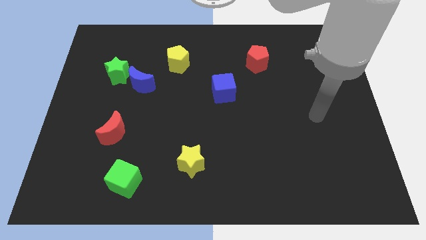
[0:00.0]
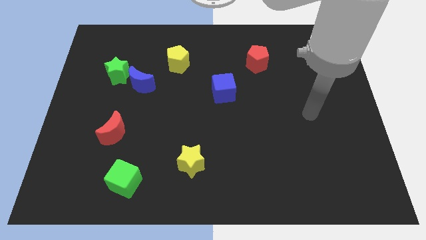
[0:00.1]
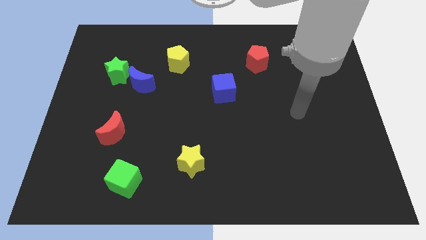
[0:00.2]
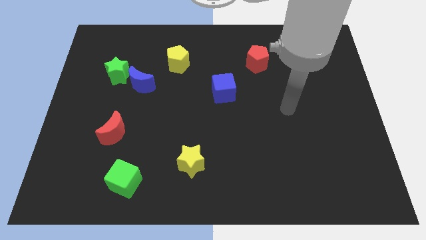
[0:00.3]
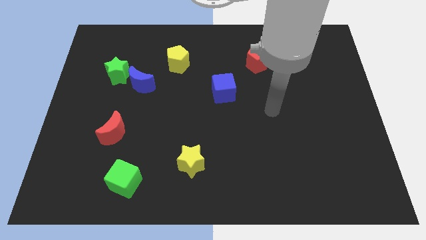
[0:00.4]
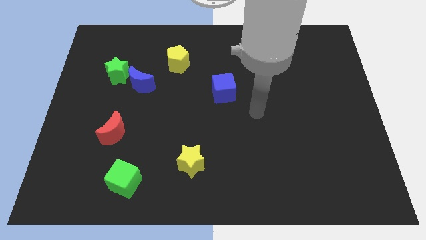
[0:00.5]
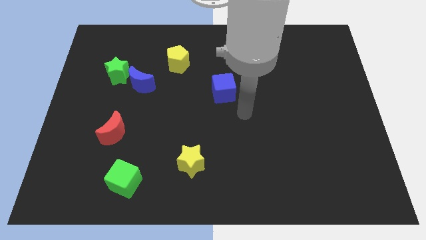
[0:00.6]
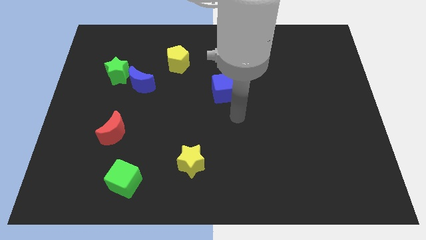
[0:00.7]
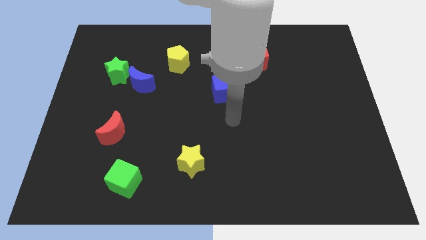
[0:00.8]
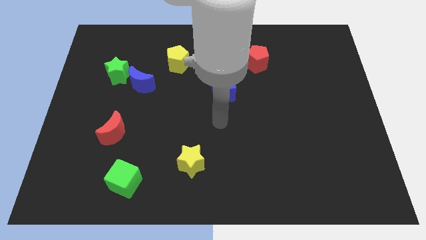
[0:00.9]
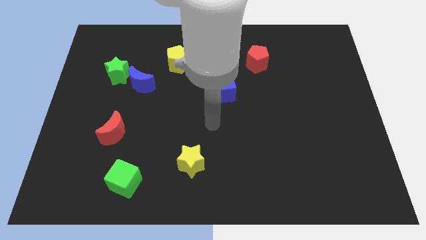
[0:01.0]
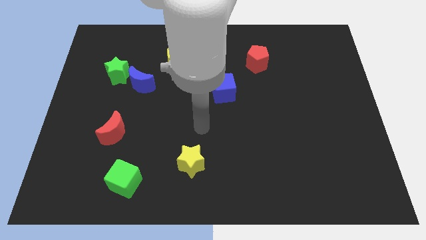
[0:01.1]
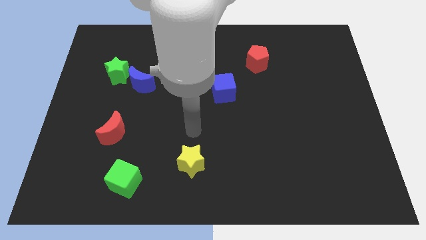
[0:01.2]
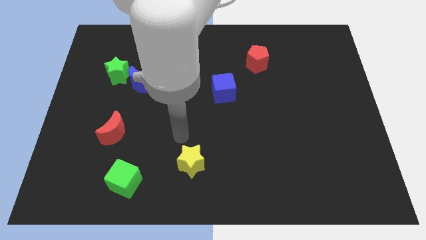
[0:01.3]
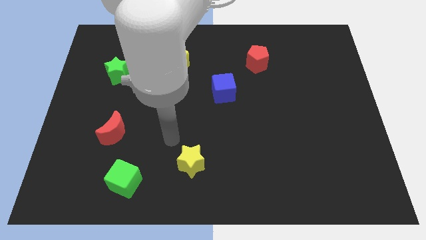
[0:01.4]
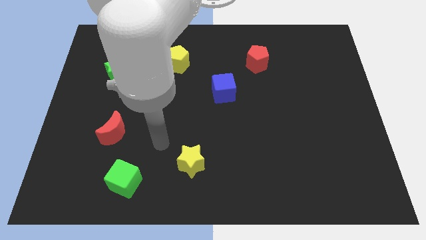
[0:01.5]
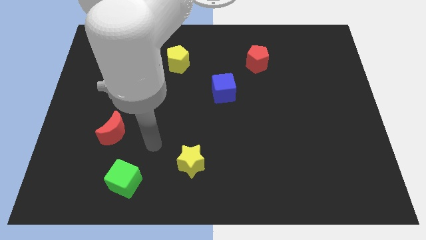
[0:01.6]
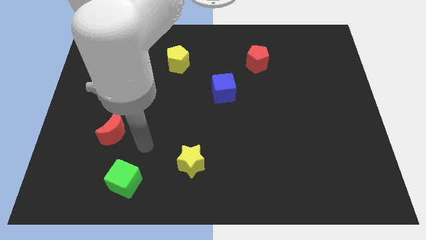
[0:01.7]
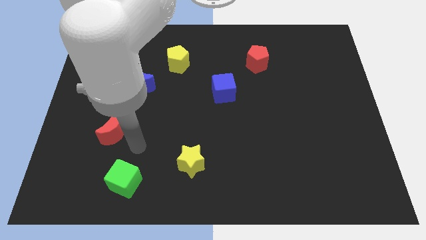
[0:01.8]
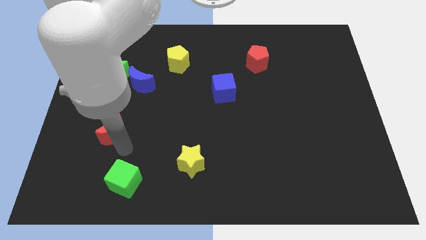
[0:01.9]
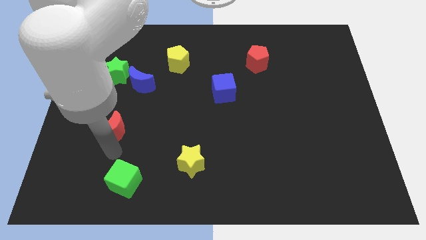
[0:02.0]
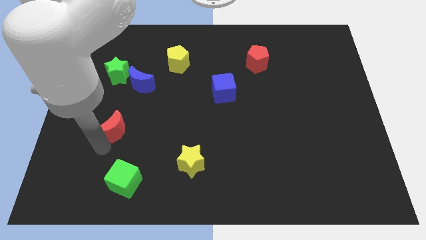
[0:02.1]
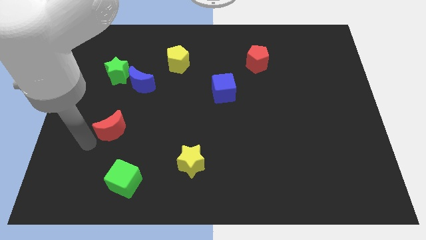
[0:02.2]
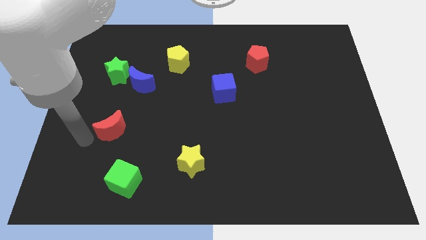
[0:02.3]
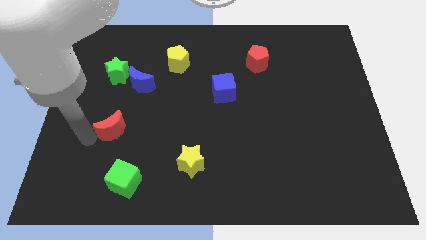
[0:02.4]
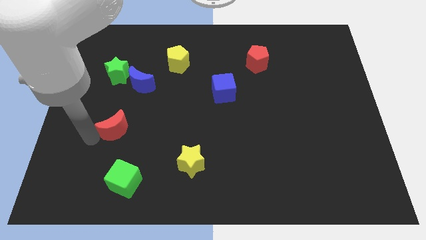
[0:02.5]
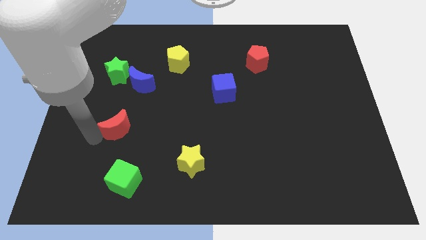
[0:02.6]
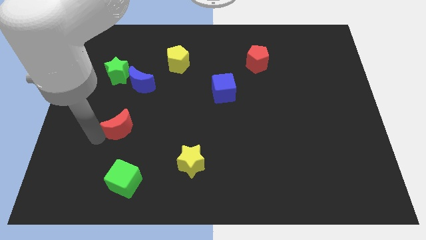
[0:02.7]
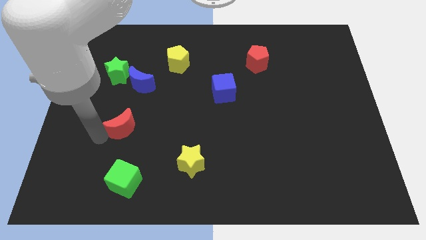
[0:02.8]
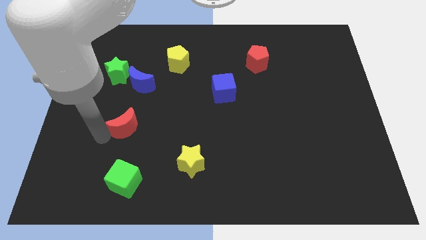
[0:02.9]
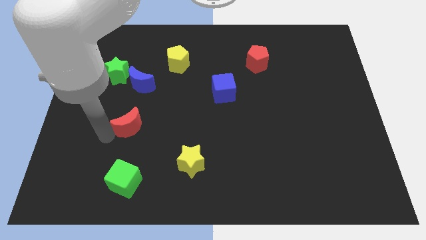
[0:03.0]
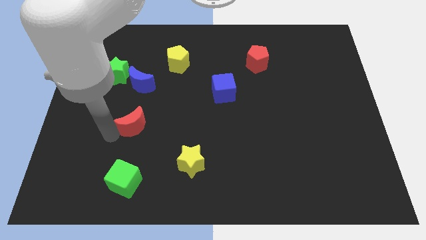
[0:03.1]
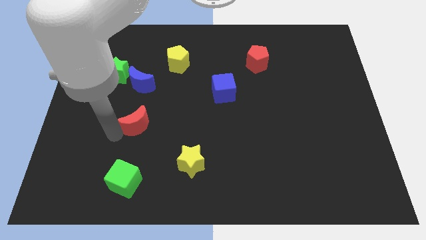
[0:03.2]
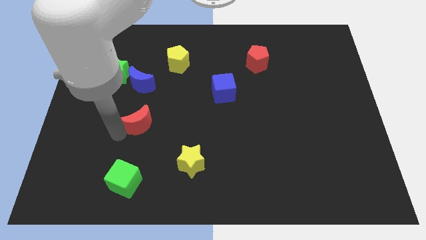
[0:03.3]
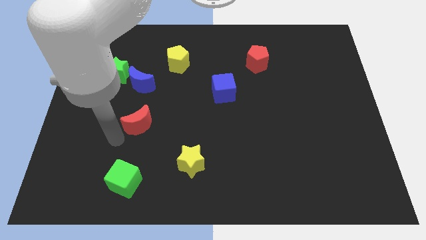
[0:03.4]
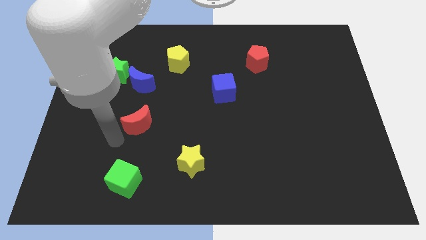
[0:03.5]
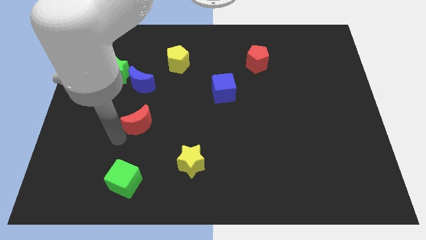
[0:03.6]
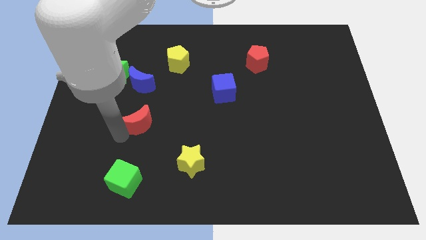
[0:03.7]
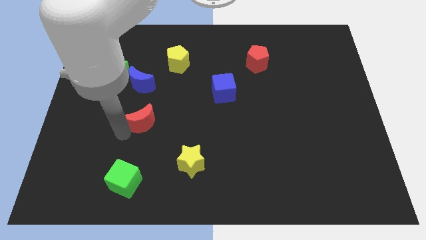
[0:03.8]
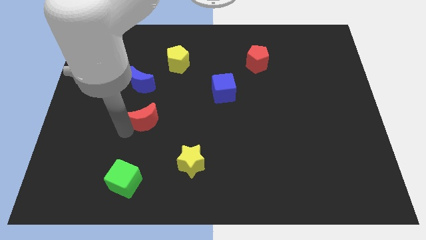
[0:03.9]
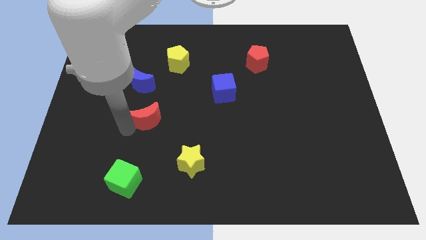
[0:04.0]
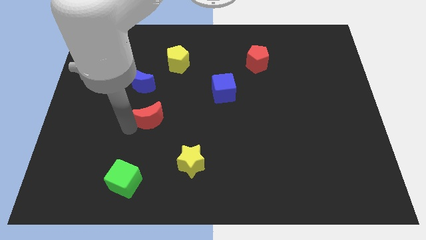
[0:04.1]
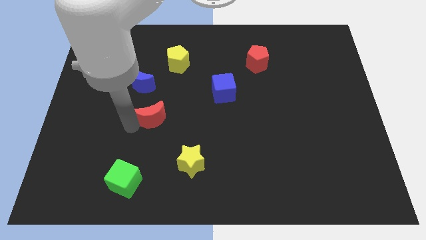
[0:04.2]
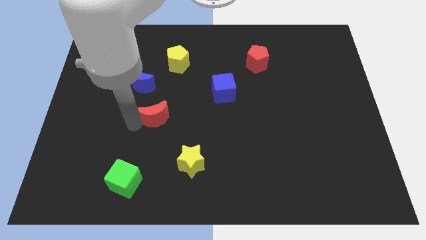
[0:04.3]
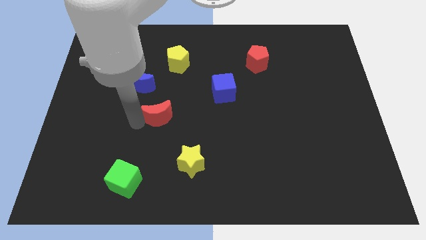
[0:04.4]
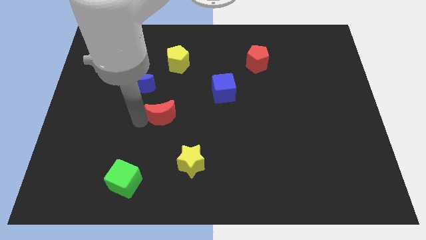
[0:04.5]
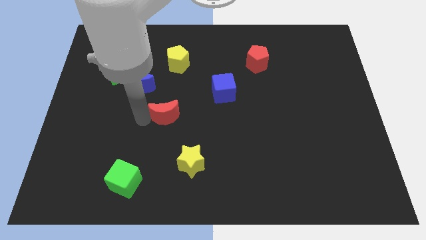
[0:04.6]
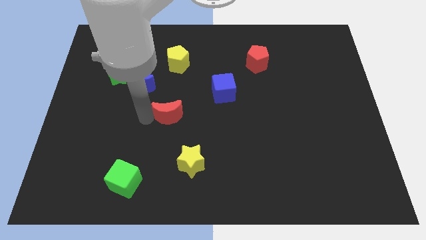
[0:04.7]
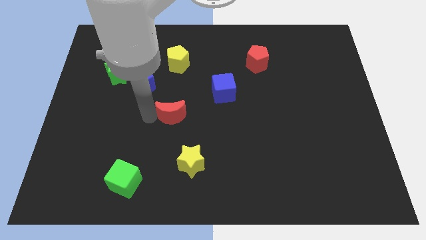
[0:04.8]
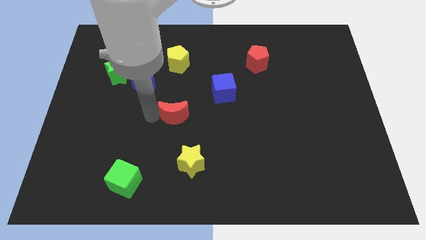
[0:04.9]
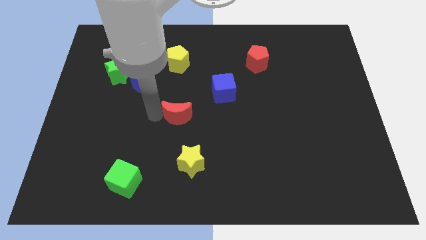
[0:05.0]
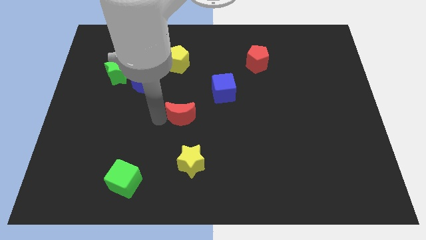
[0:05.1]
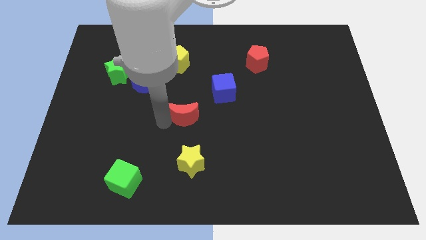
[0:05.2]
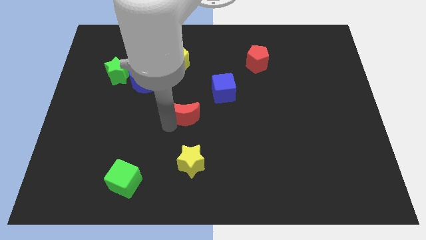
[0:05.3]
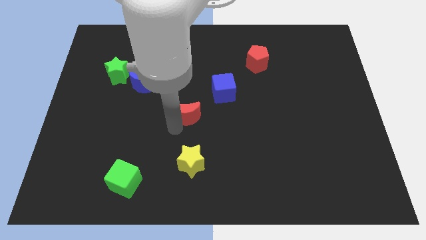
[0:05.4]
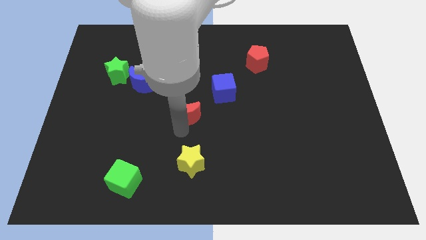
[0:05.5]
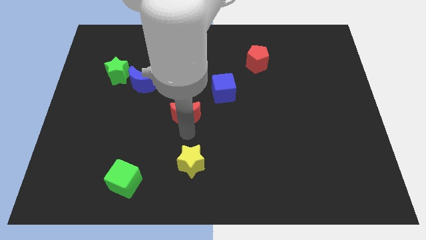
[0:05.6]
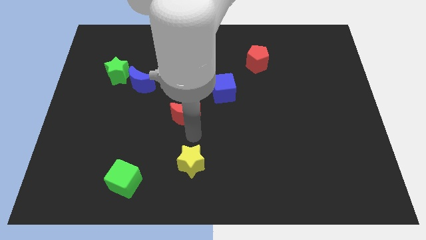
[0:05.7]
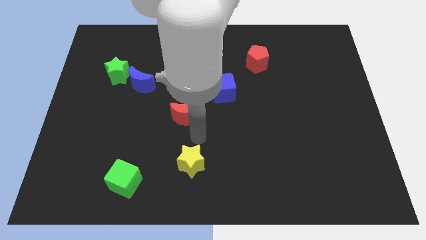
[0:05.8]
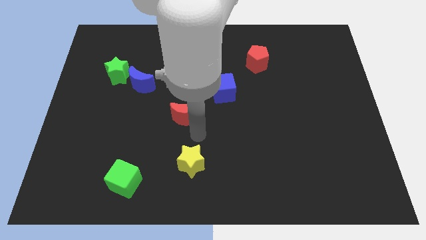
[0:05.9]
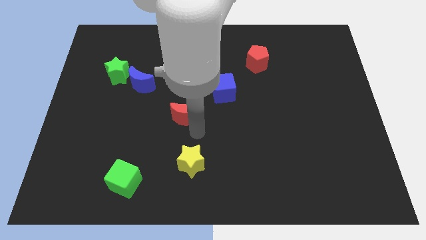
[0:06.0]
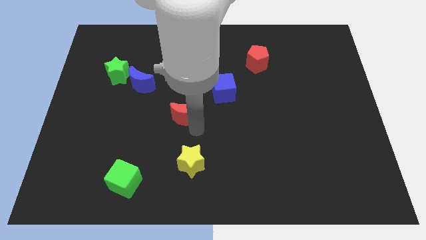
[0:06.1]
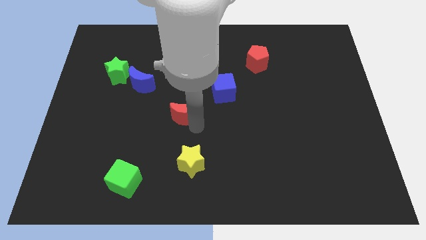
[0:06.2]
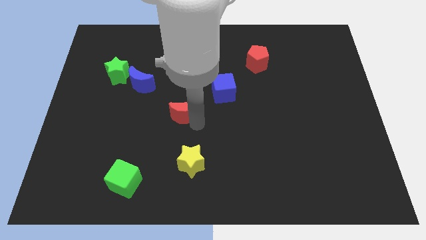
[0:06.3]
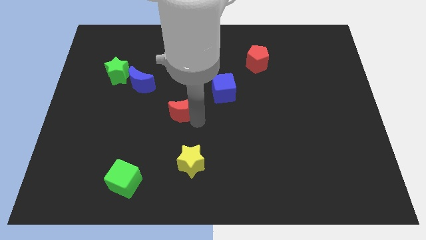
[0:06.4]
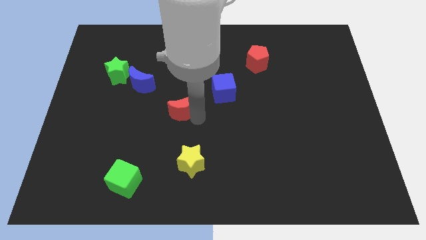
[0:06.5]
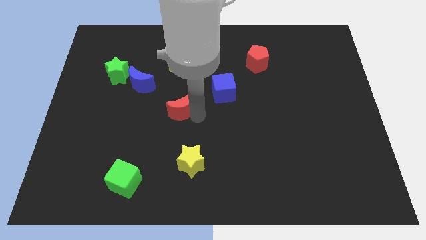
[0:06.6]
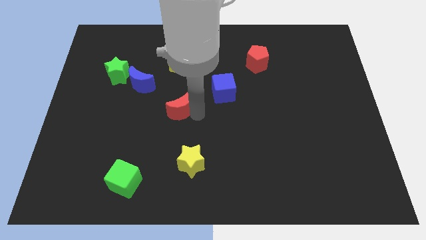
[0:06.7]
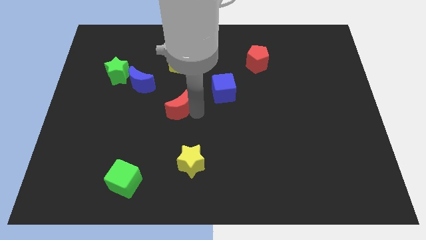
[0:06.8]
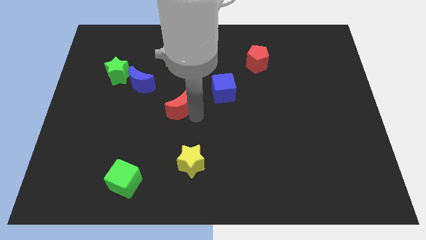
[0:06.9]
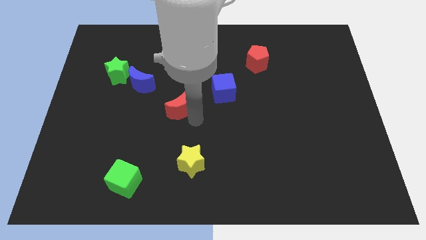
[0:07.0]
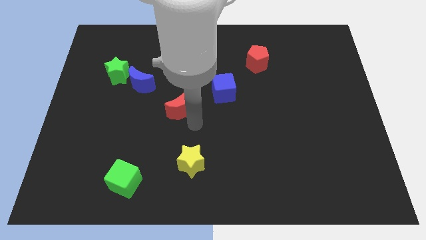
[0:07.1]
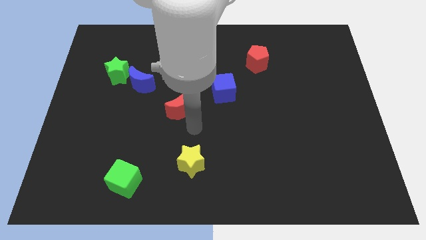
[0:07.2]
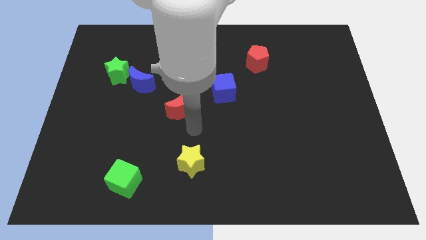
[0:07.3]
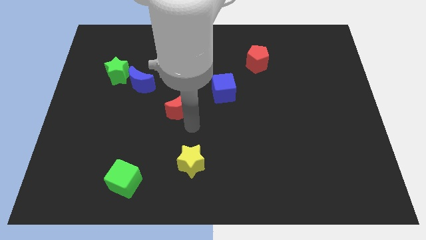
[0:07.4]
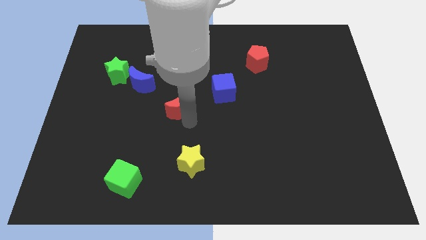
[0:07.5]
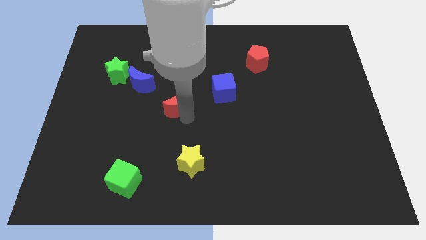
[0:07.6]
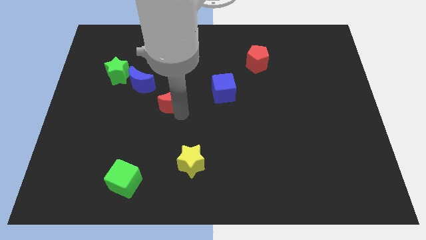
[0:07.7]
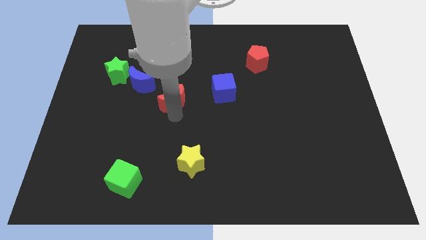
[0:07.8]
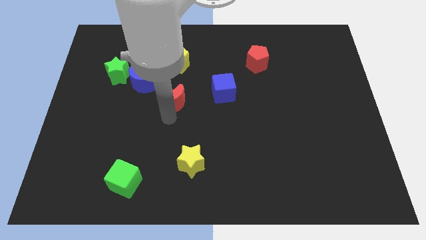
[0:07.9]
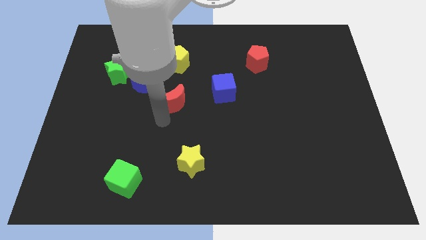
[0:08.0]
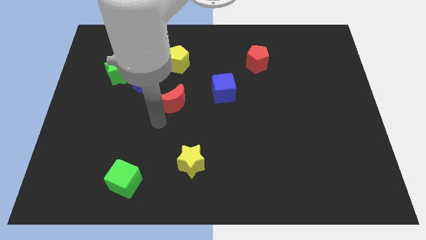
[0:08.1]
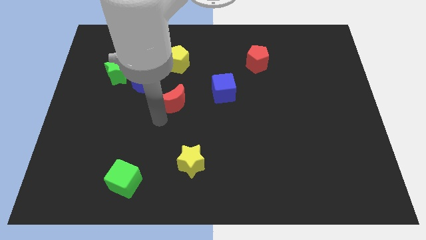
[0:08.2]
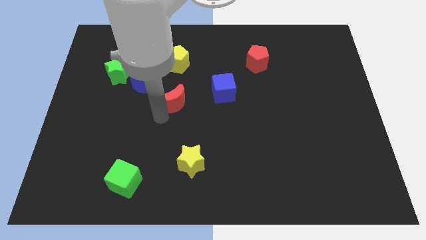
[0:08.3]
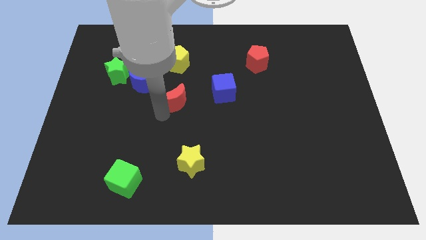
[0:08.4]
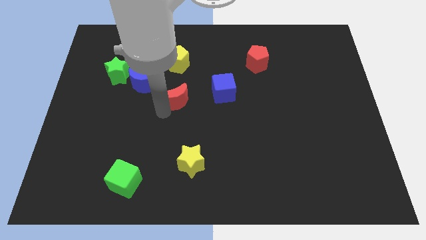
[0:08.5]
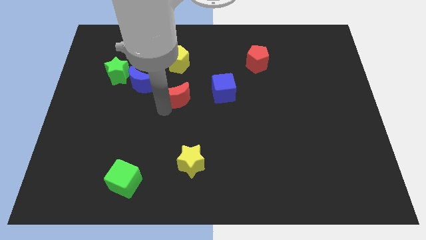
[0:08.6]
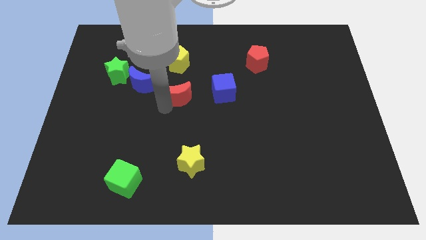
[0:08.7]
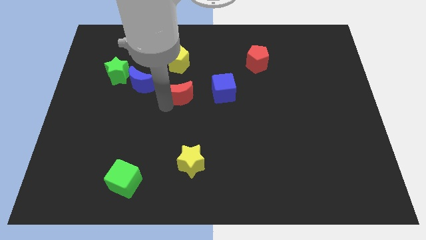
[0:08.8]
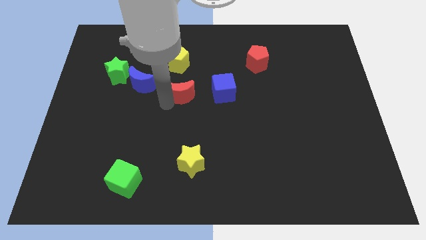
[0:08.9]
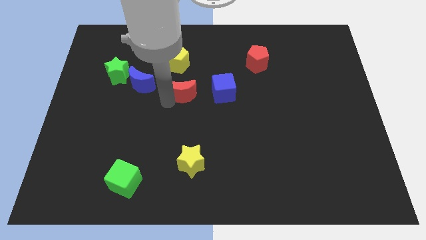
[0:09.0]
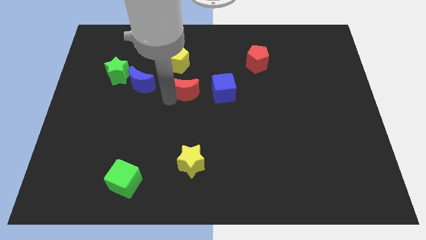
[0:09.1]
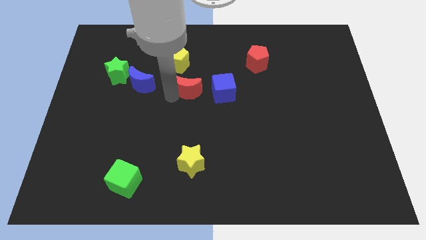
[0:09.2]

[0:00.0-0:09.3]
move the red moon upwards and right diagonally
